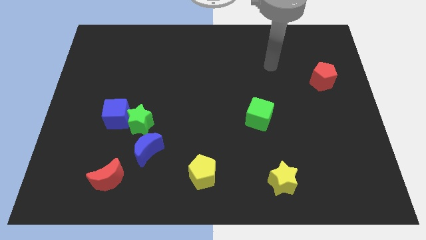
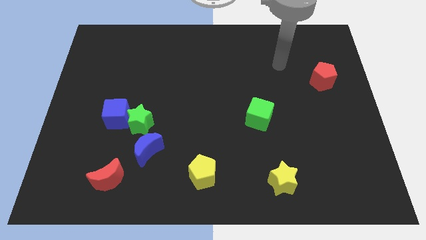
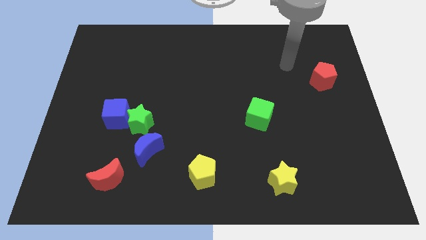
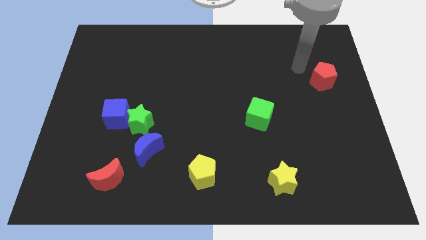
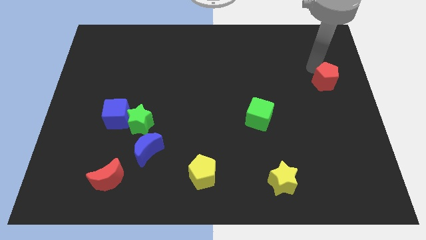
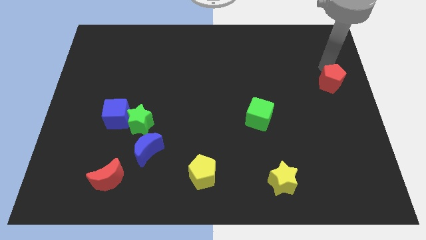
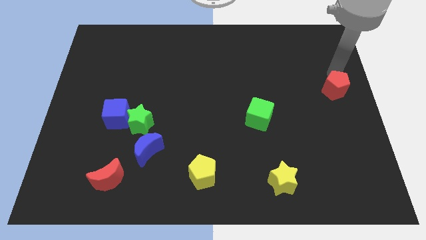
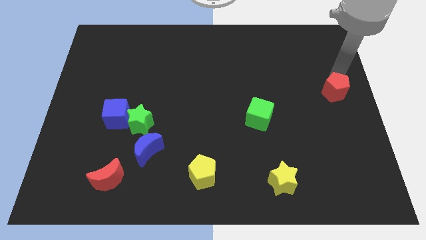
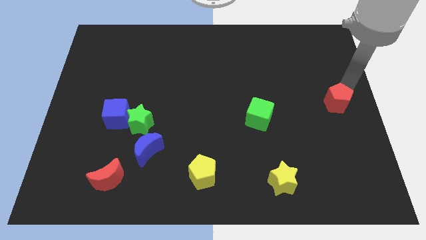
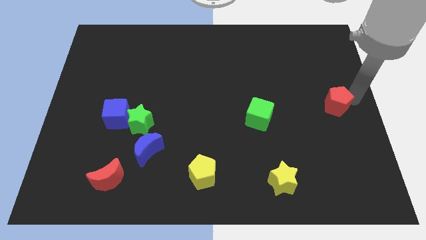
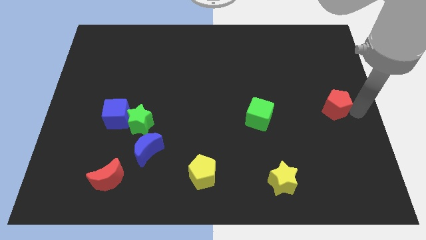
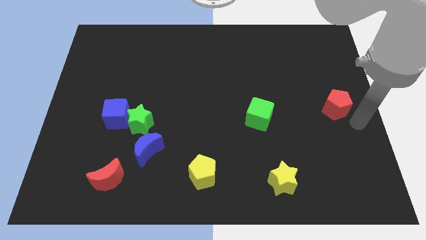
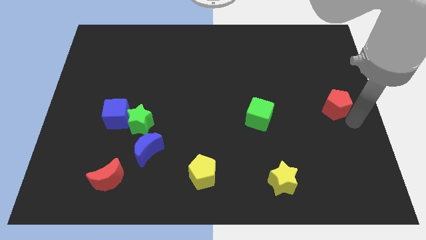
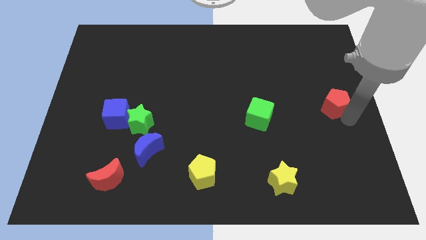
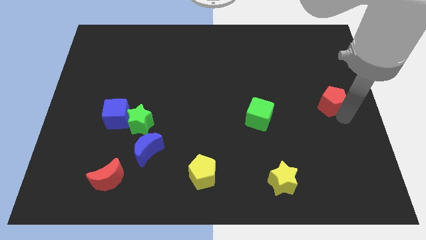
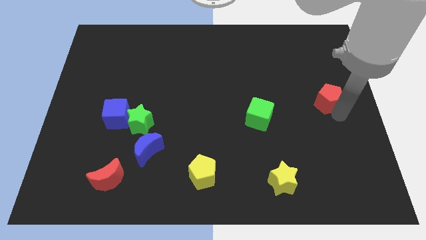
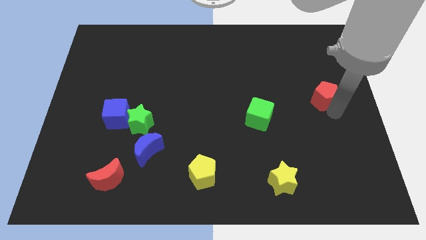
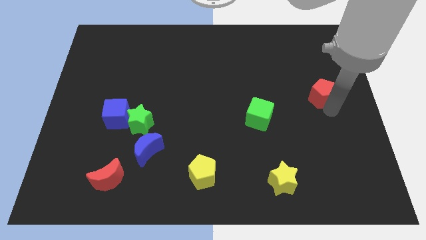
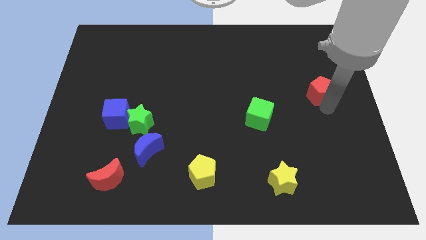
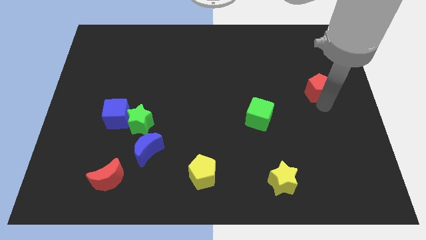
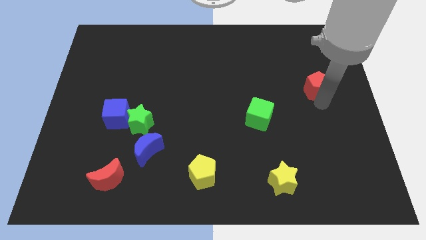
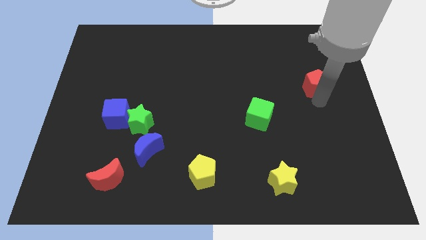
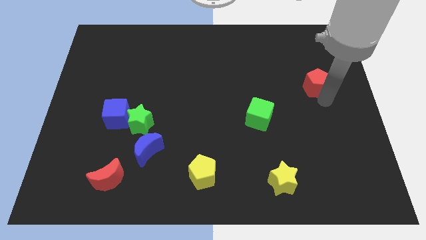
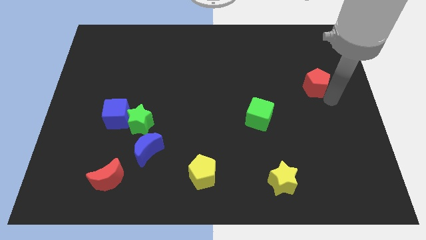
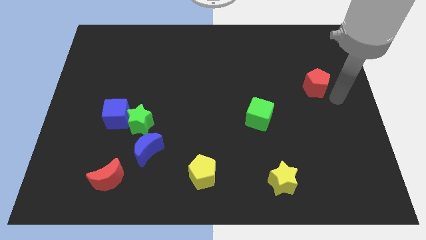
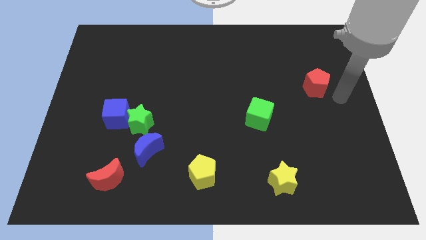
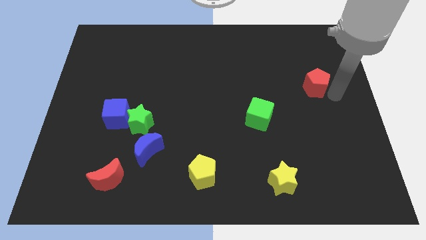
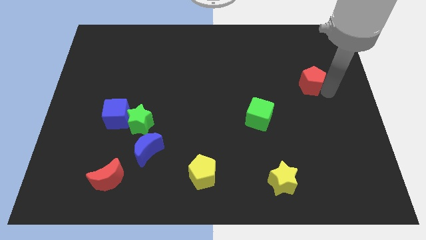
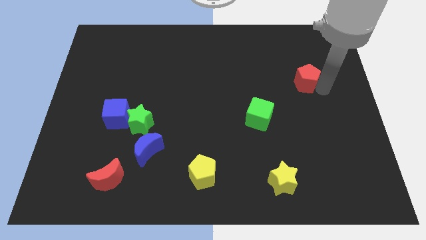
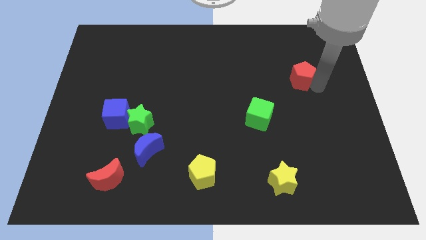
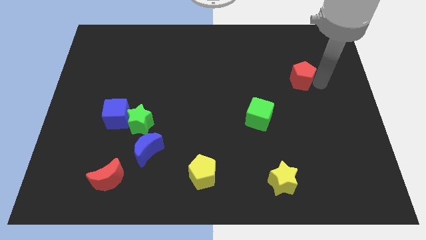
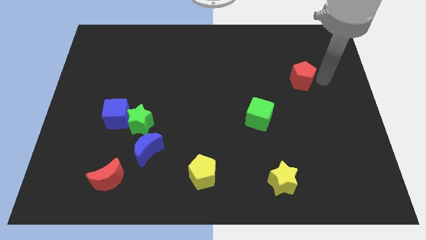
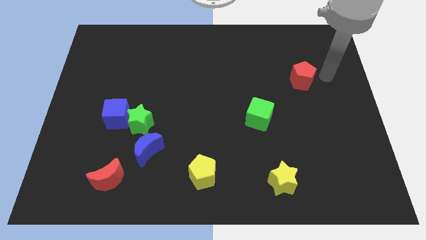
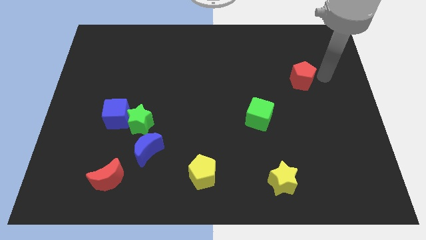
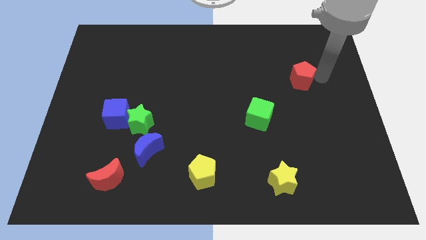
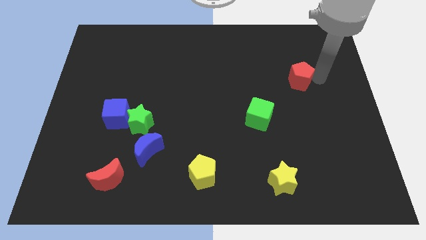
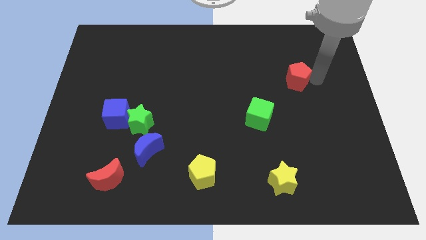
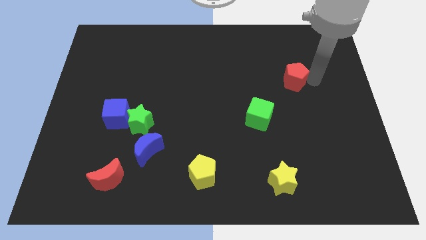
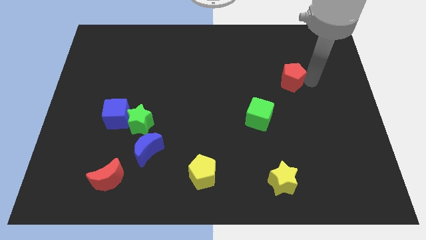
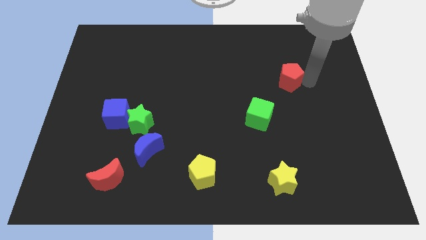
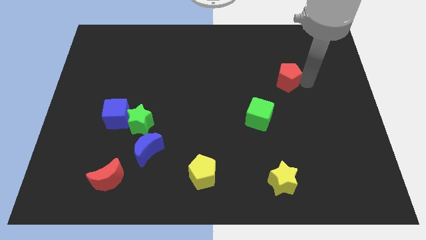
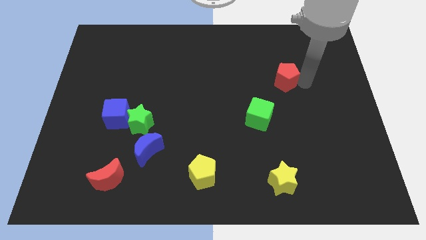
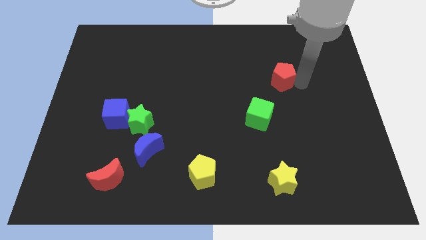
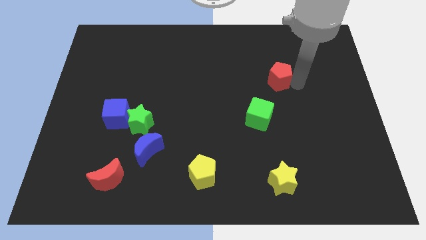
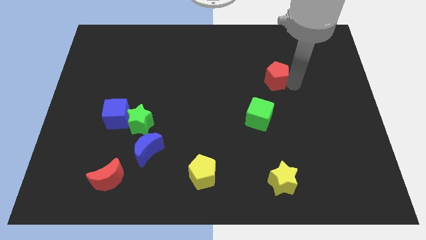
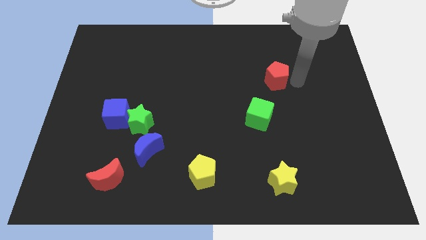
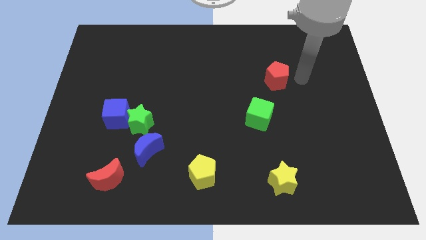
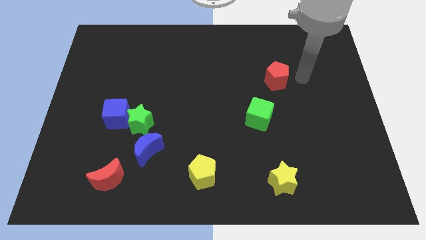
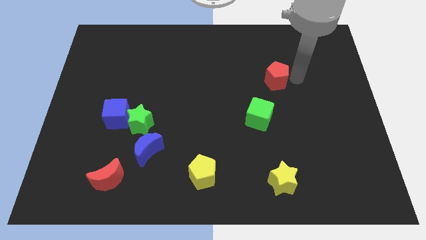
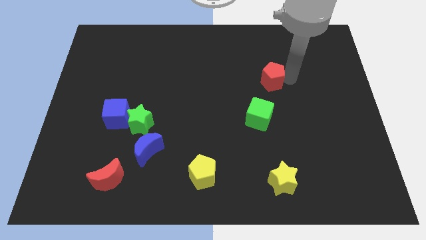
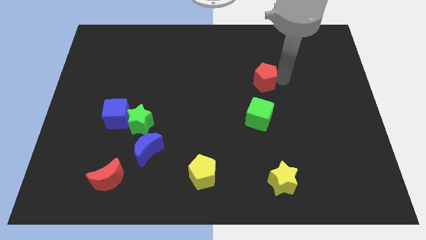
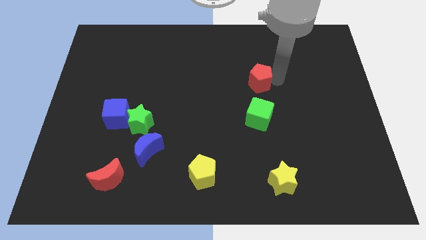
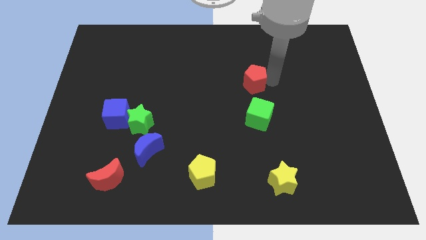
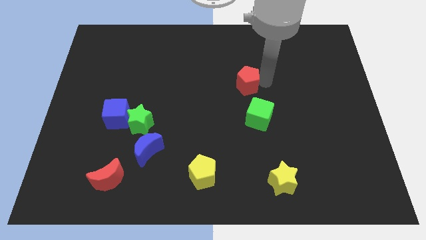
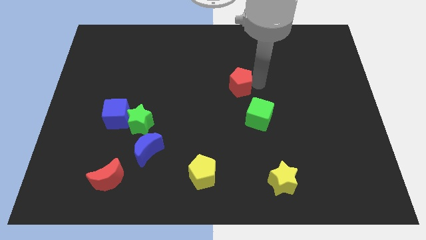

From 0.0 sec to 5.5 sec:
move the red pentagon to the left

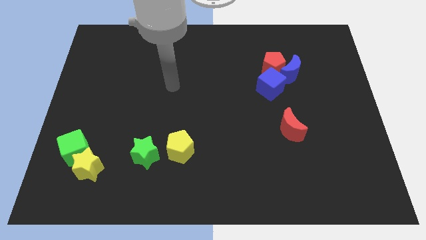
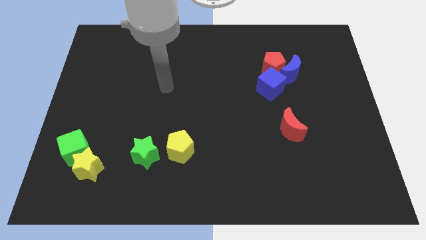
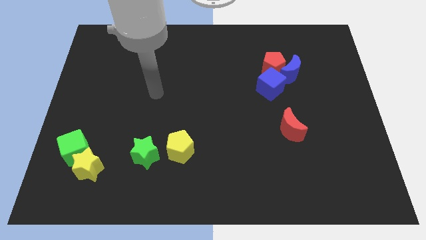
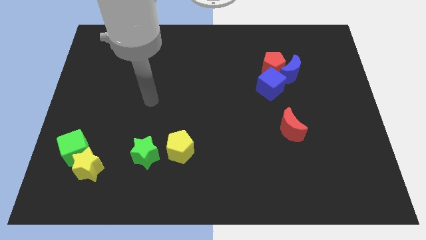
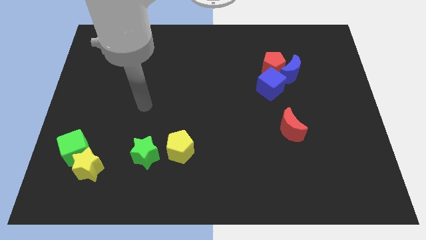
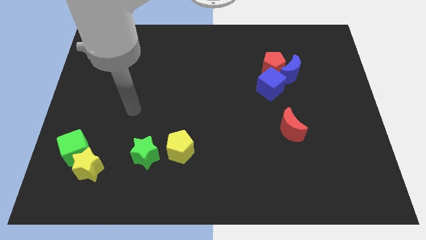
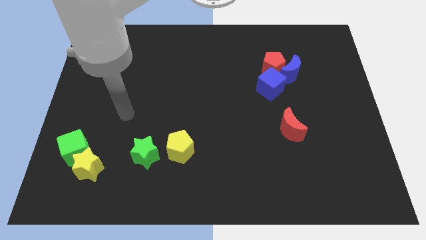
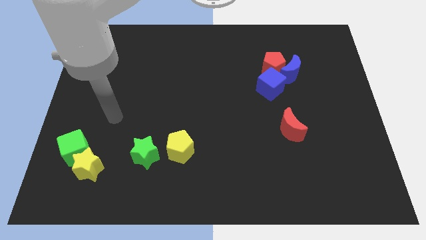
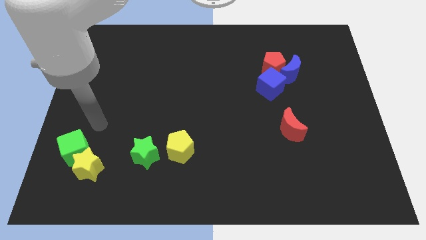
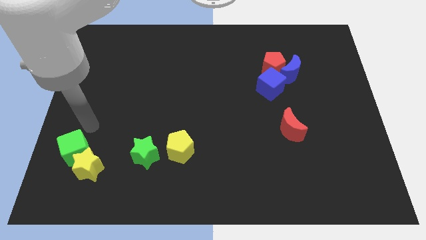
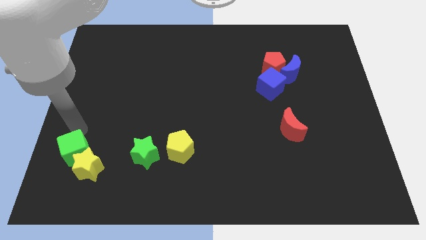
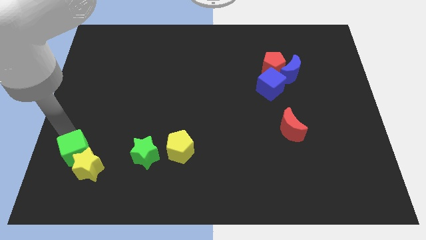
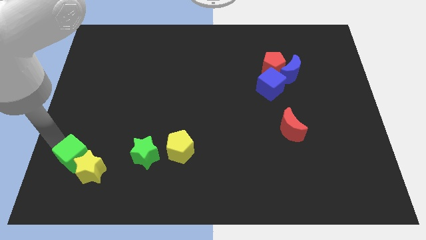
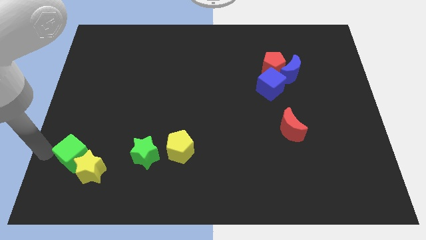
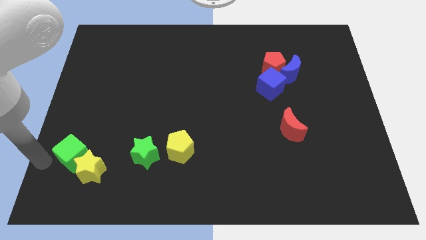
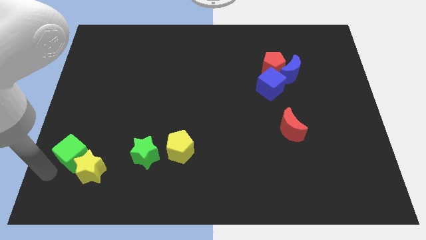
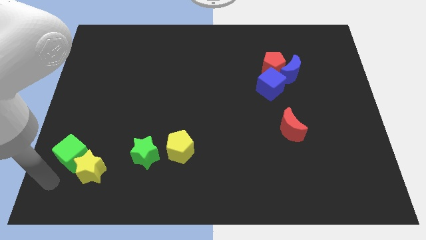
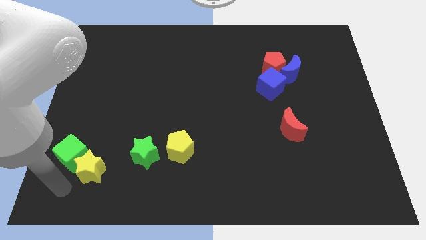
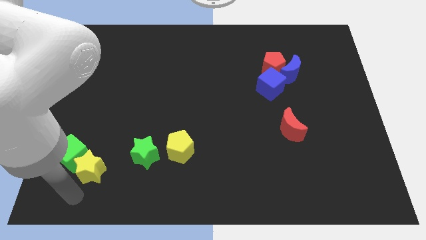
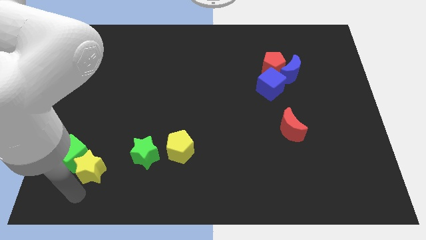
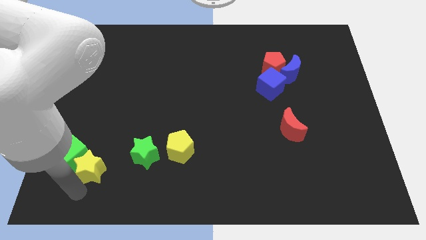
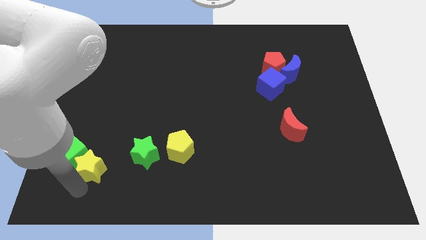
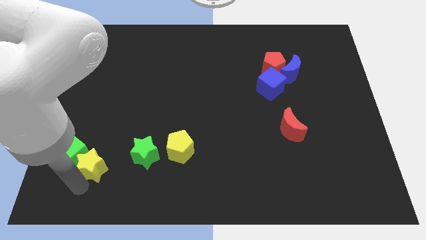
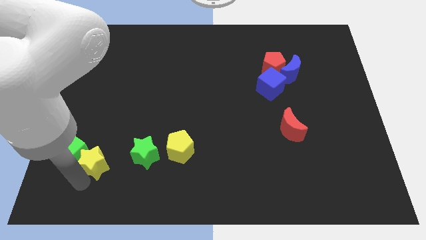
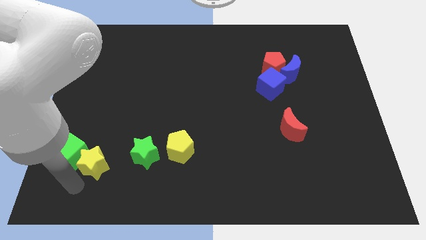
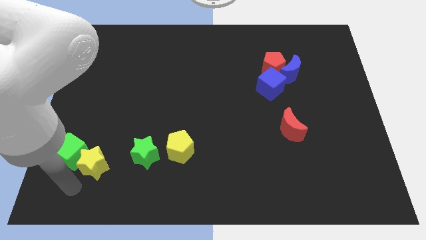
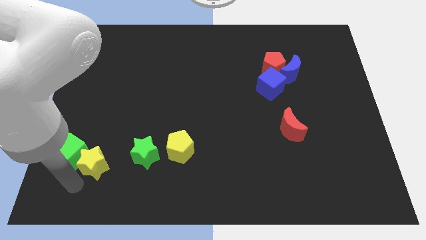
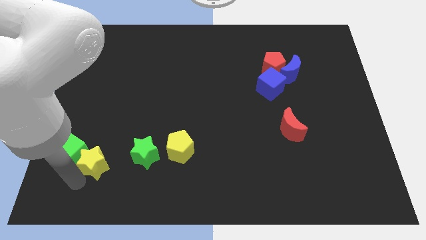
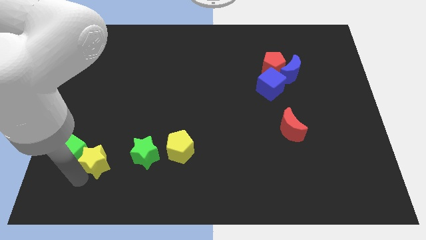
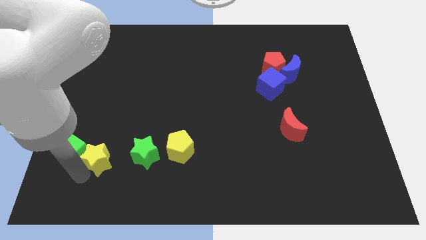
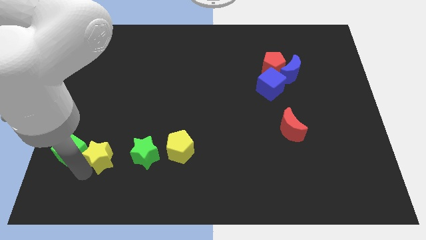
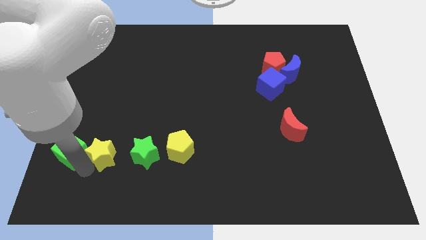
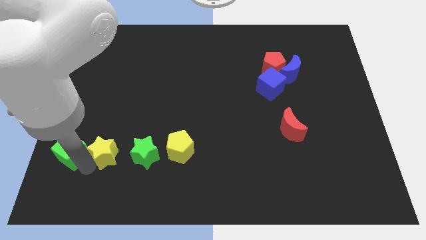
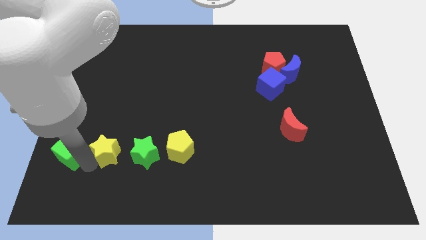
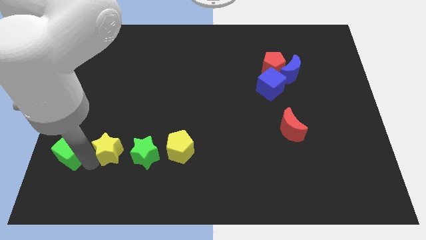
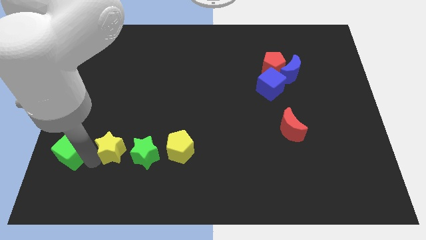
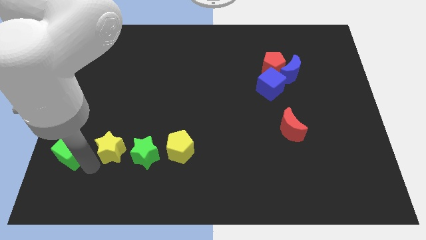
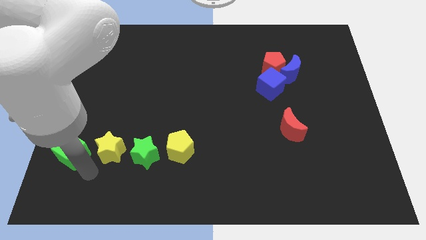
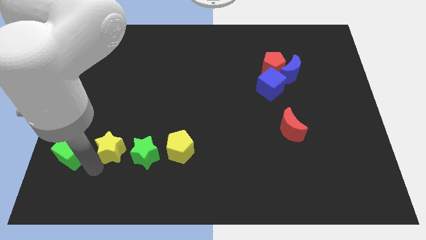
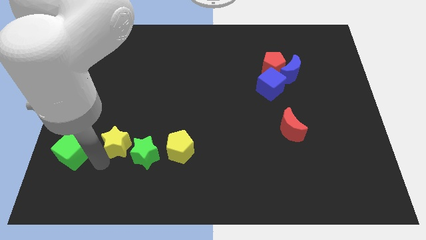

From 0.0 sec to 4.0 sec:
move the yellow star a little upwards and to the right
